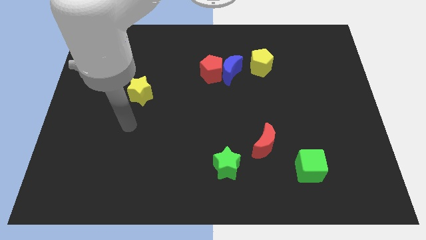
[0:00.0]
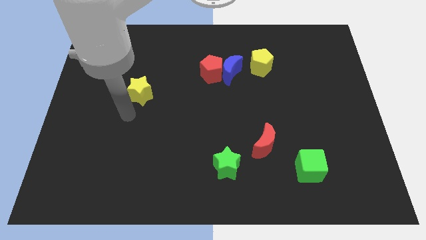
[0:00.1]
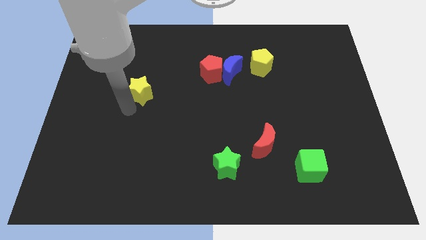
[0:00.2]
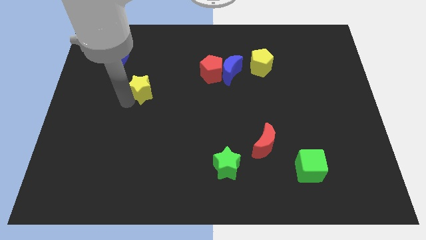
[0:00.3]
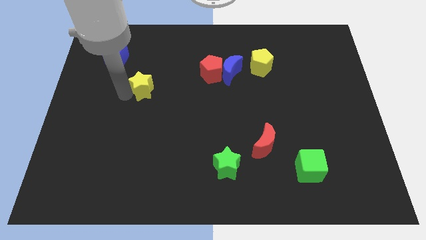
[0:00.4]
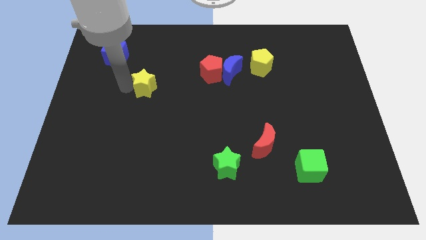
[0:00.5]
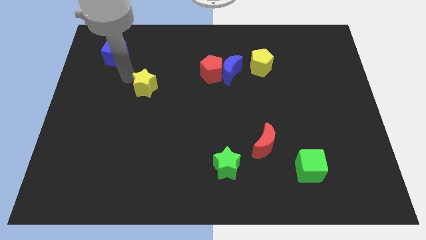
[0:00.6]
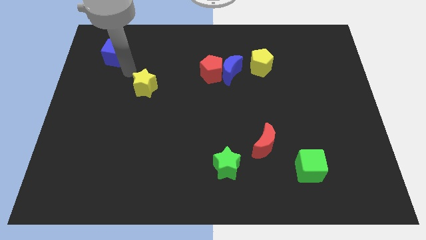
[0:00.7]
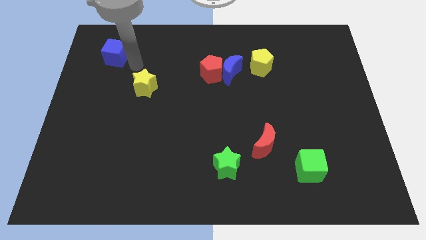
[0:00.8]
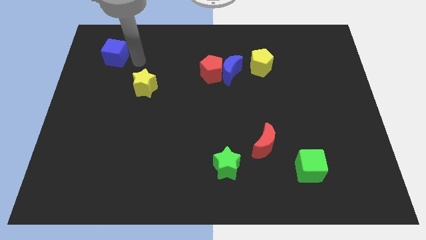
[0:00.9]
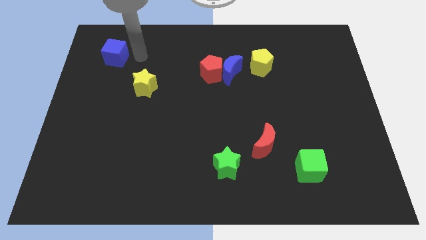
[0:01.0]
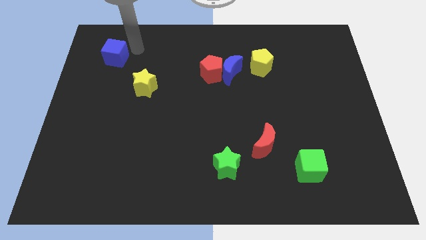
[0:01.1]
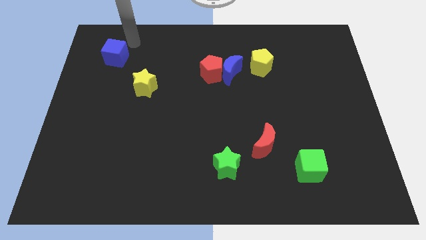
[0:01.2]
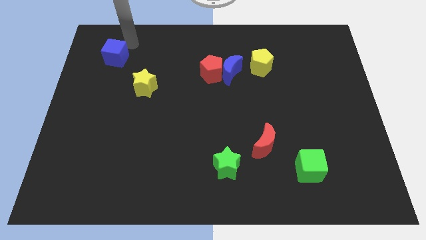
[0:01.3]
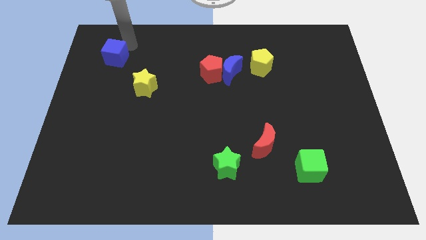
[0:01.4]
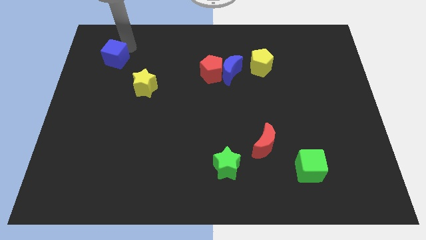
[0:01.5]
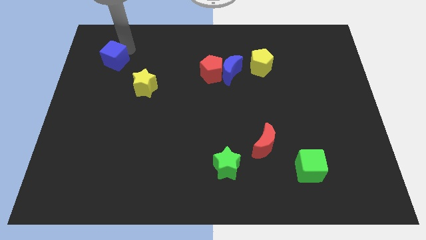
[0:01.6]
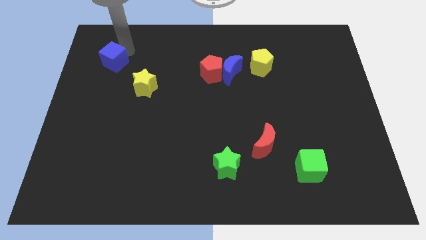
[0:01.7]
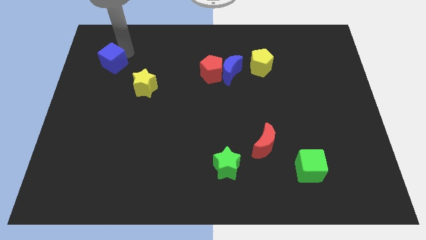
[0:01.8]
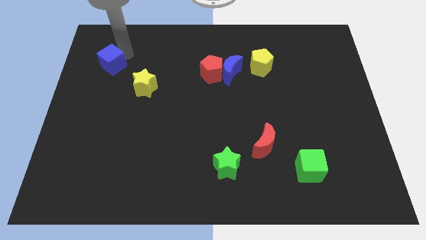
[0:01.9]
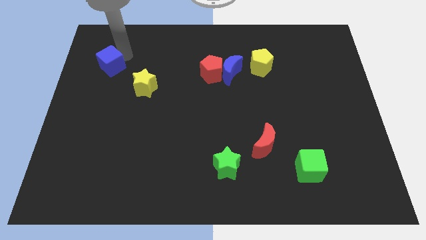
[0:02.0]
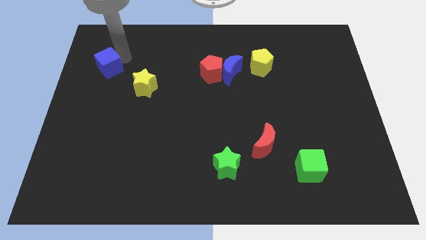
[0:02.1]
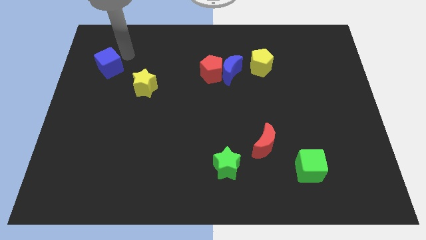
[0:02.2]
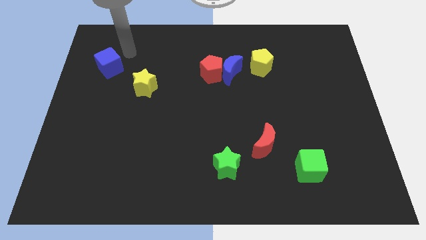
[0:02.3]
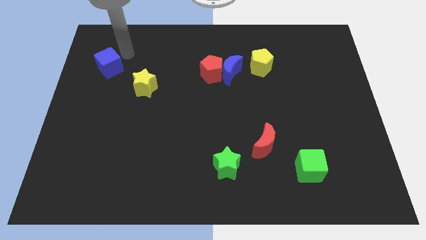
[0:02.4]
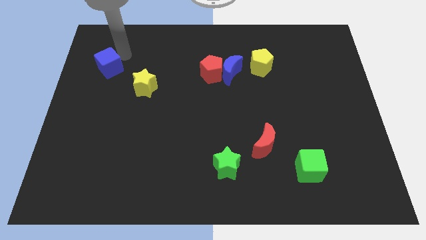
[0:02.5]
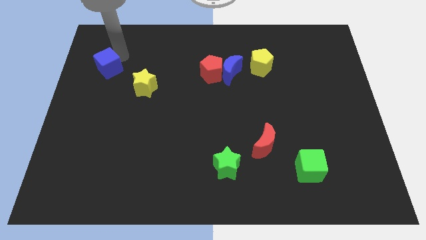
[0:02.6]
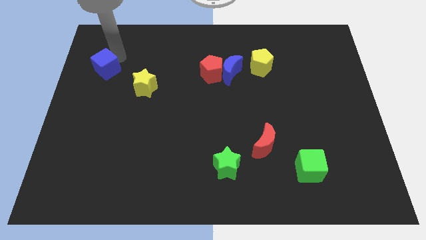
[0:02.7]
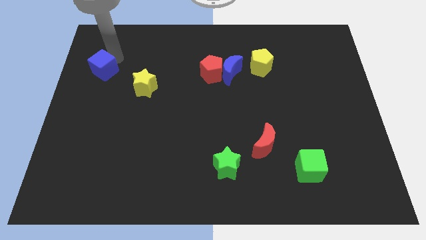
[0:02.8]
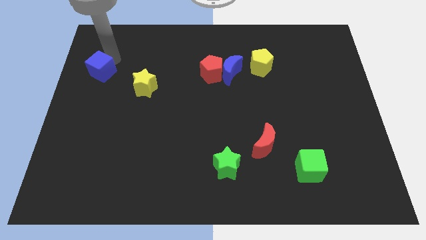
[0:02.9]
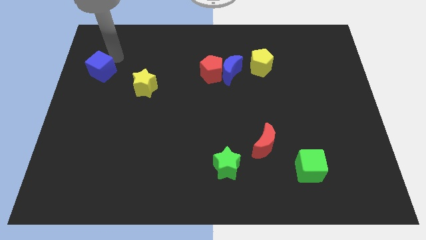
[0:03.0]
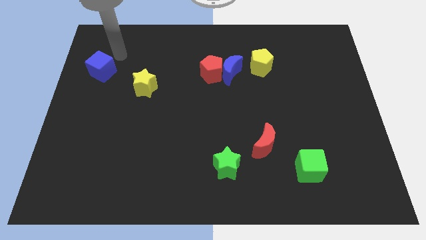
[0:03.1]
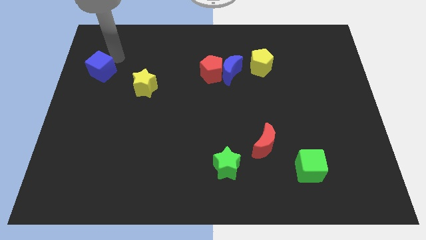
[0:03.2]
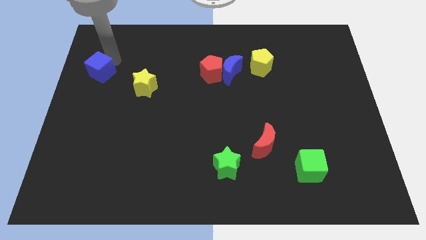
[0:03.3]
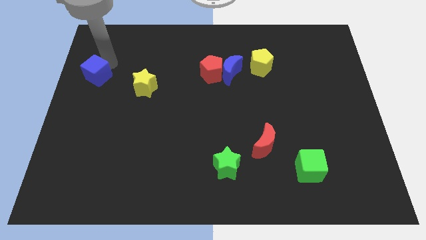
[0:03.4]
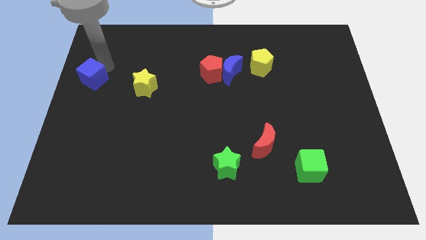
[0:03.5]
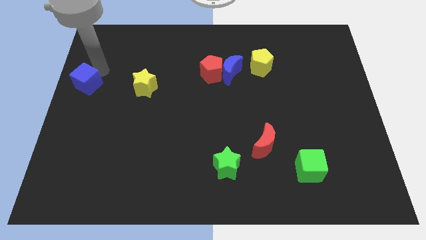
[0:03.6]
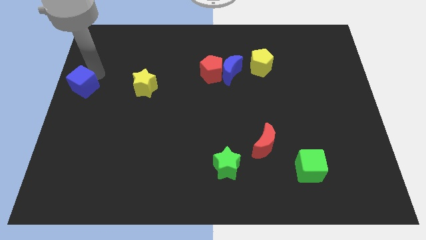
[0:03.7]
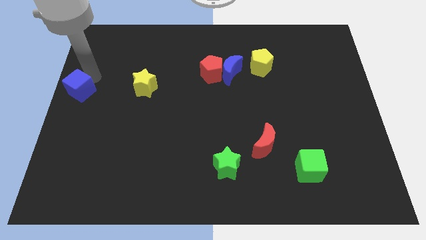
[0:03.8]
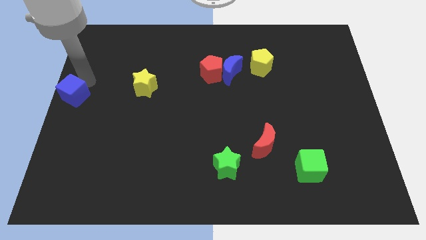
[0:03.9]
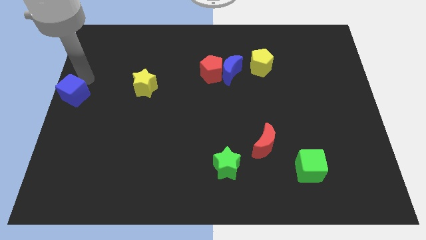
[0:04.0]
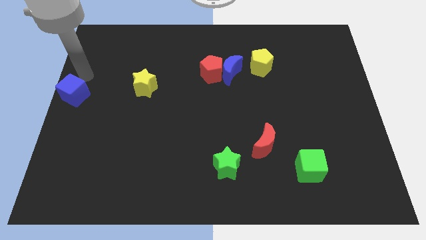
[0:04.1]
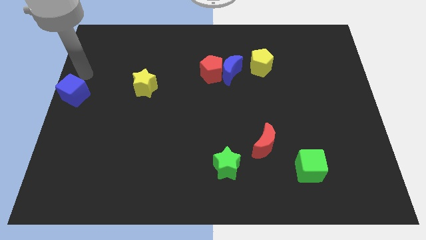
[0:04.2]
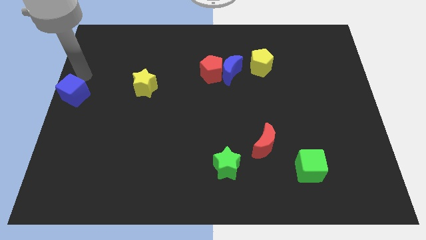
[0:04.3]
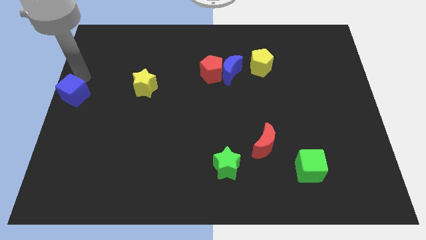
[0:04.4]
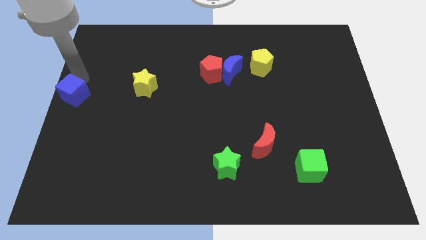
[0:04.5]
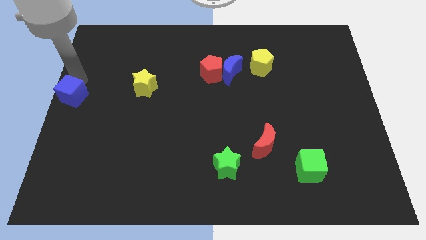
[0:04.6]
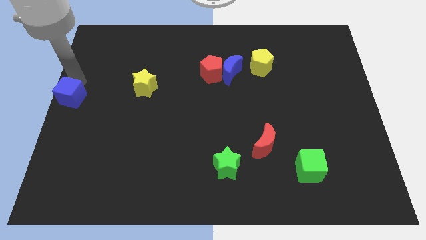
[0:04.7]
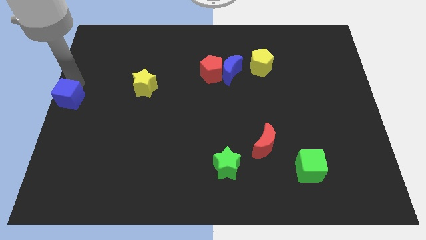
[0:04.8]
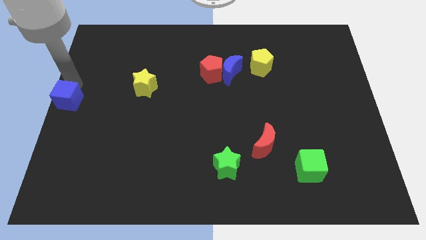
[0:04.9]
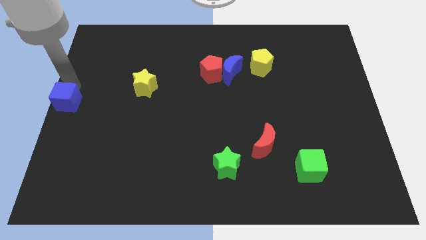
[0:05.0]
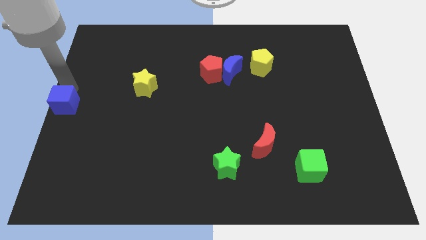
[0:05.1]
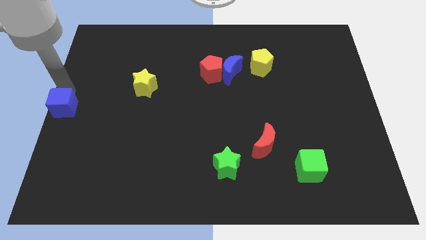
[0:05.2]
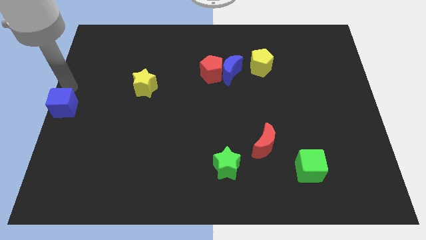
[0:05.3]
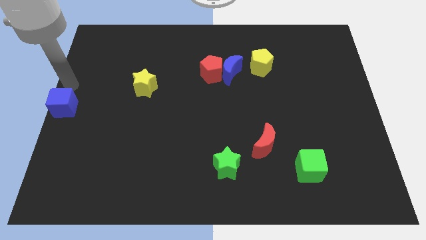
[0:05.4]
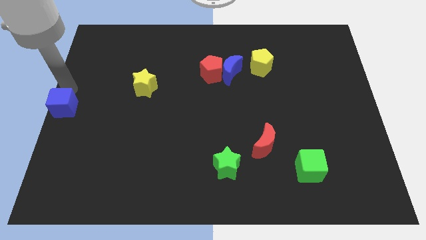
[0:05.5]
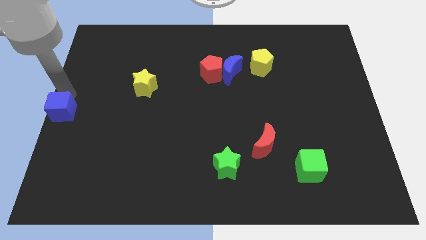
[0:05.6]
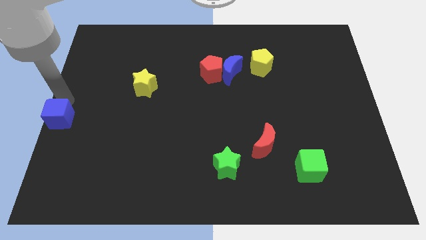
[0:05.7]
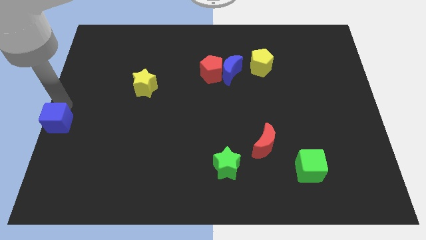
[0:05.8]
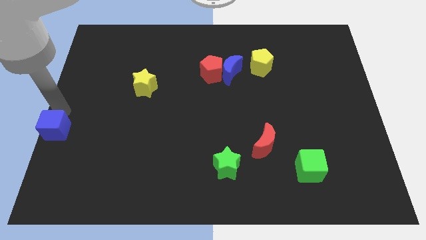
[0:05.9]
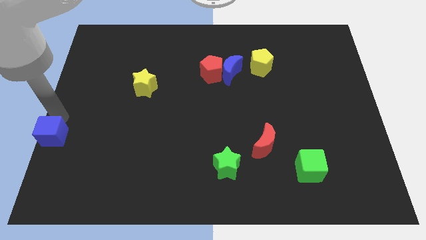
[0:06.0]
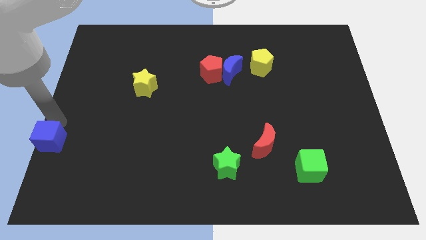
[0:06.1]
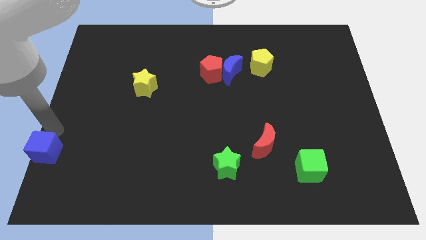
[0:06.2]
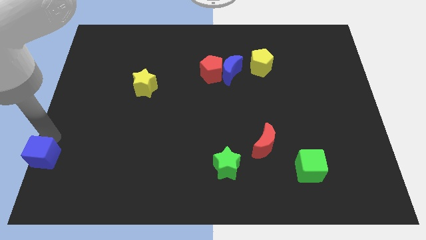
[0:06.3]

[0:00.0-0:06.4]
move the blue cube to the bottom left

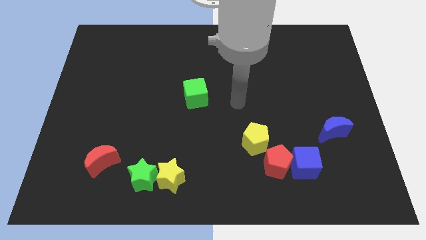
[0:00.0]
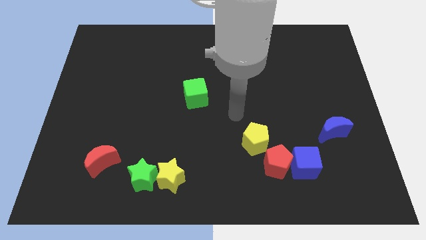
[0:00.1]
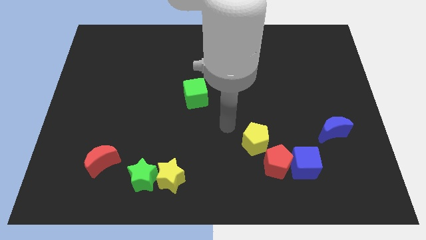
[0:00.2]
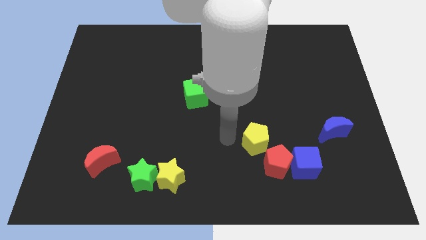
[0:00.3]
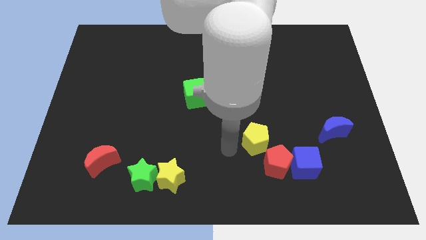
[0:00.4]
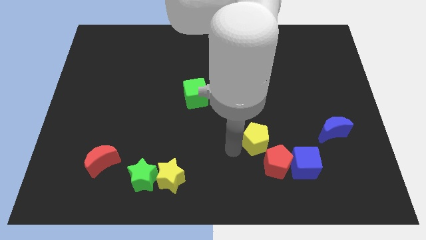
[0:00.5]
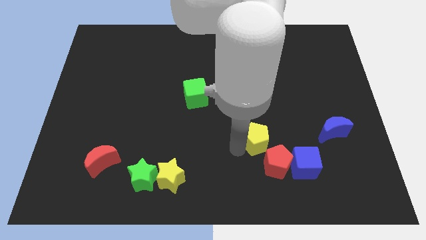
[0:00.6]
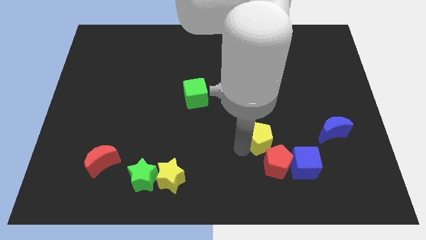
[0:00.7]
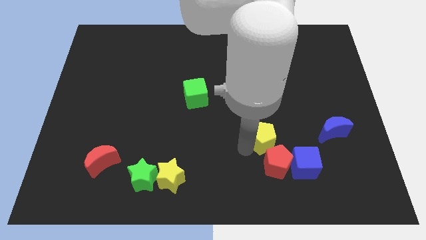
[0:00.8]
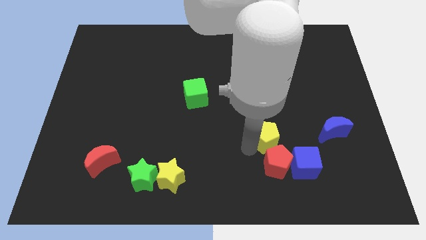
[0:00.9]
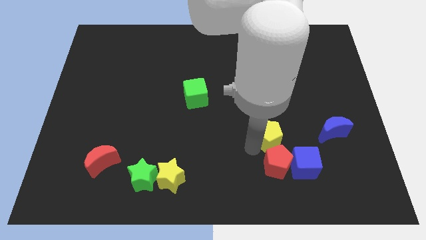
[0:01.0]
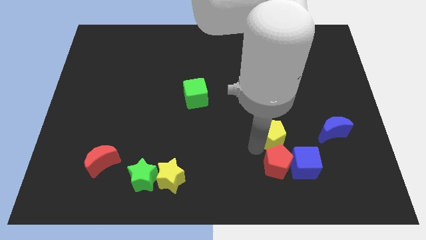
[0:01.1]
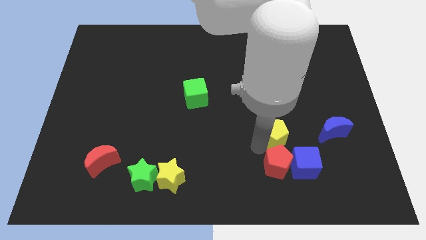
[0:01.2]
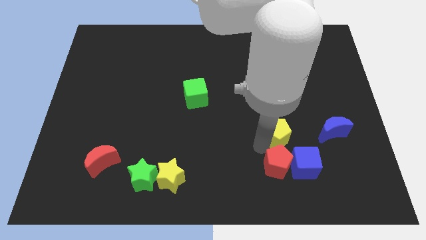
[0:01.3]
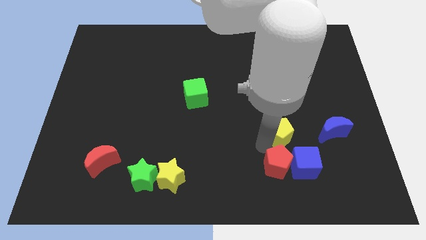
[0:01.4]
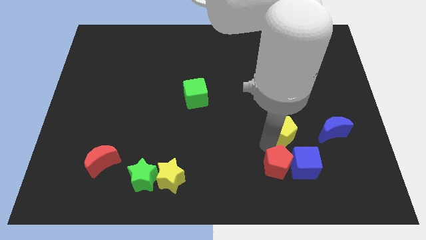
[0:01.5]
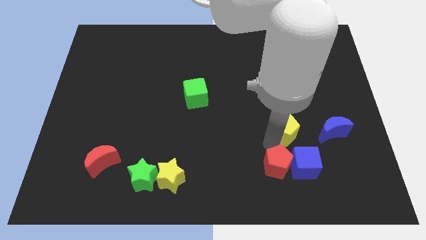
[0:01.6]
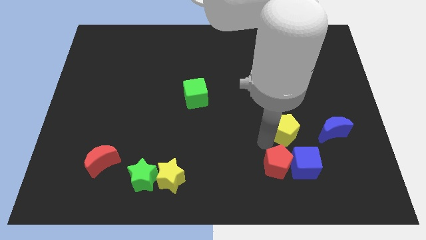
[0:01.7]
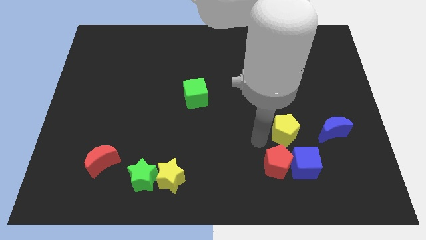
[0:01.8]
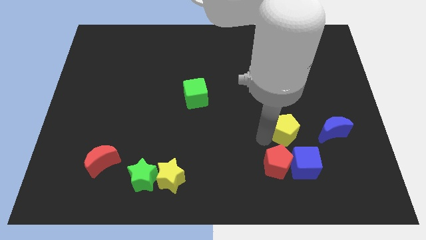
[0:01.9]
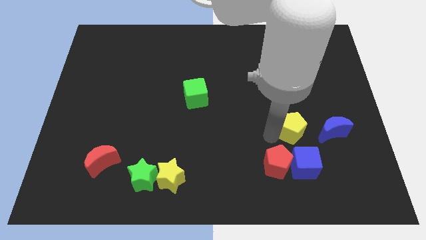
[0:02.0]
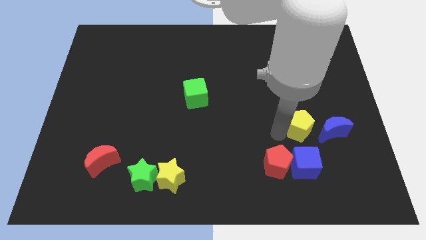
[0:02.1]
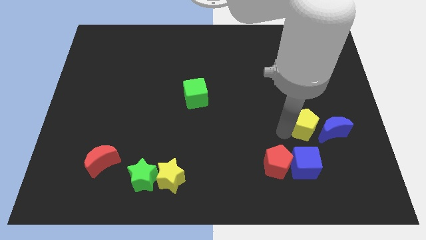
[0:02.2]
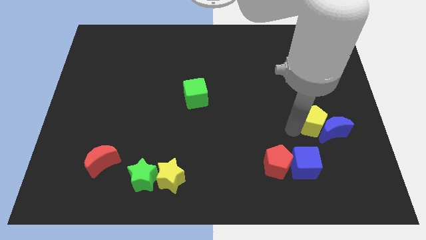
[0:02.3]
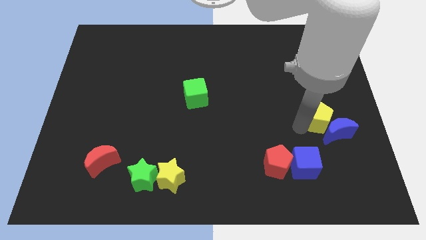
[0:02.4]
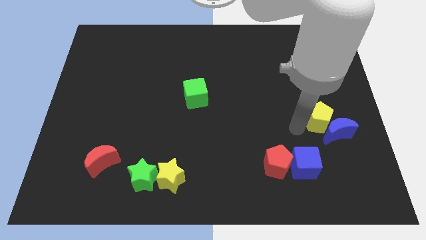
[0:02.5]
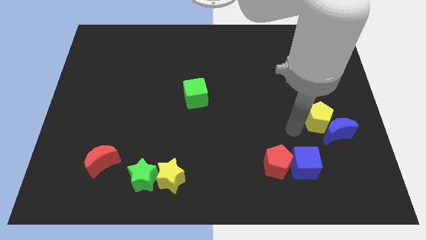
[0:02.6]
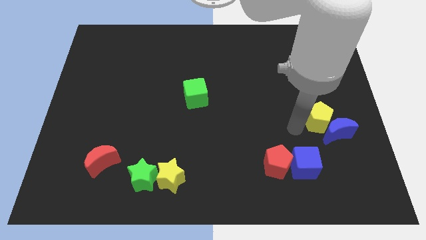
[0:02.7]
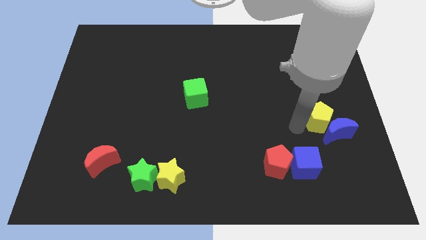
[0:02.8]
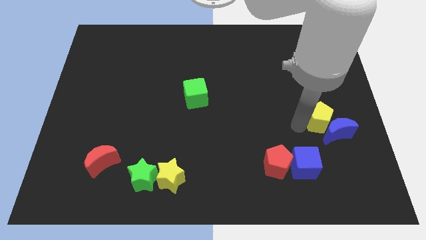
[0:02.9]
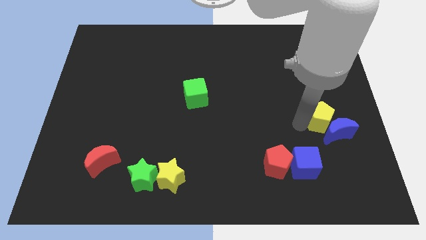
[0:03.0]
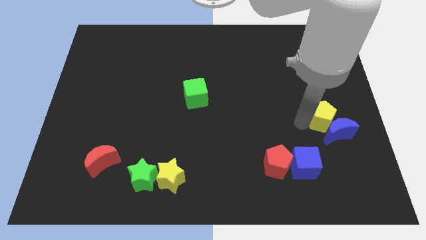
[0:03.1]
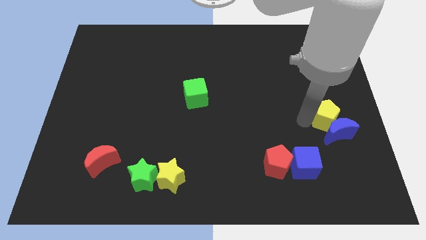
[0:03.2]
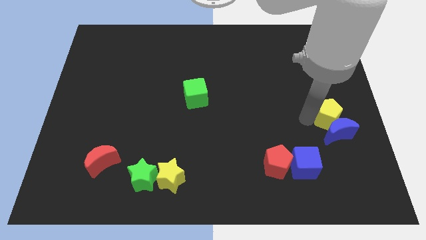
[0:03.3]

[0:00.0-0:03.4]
move the yellow pentagon to the center right
